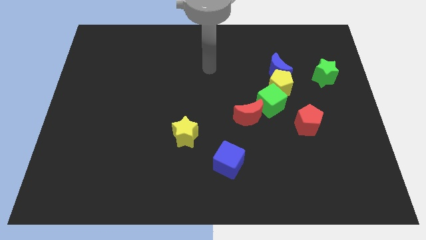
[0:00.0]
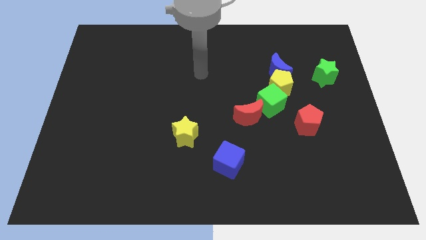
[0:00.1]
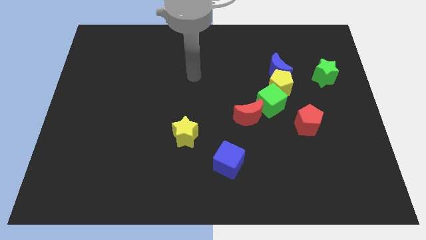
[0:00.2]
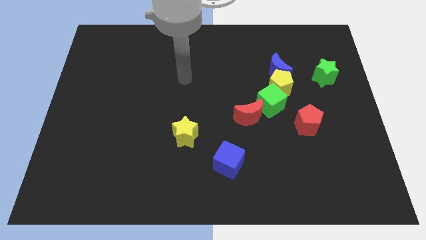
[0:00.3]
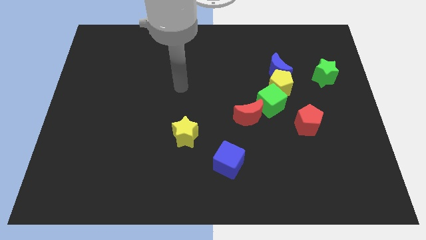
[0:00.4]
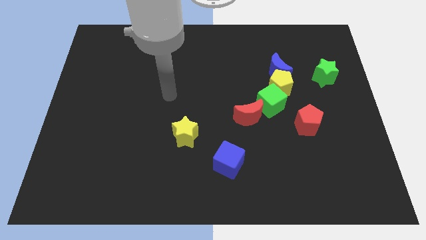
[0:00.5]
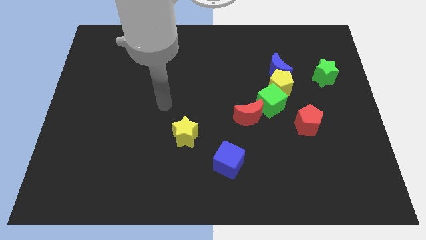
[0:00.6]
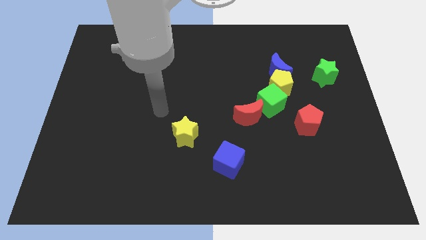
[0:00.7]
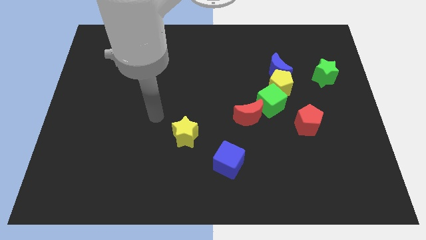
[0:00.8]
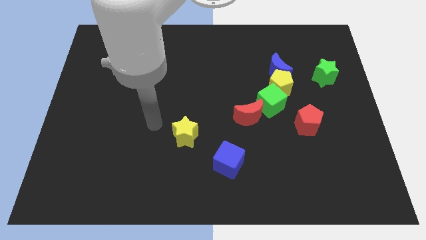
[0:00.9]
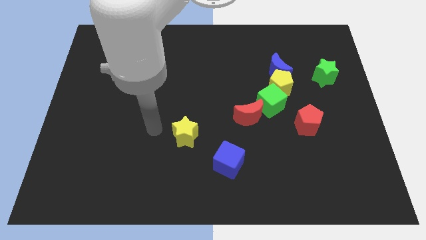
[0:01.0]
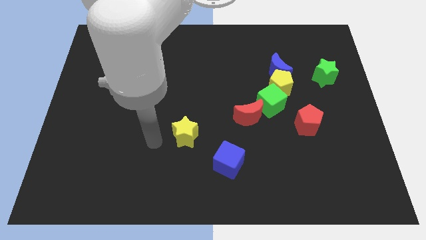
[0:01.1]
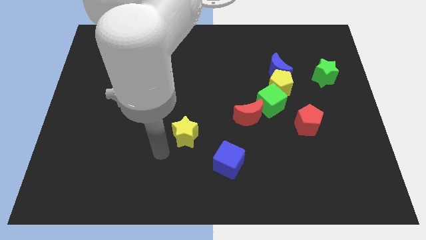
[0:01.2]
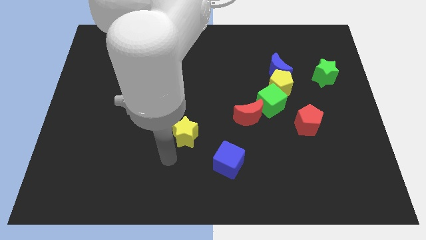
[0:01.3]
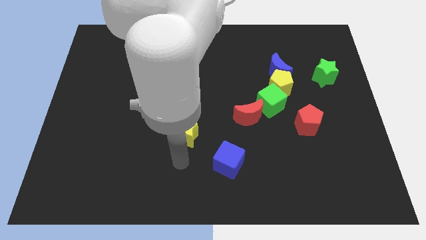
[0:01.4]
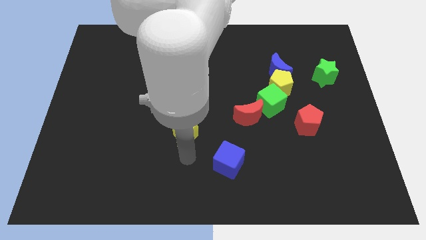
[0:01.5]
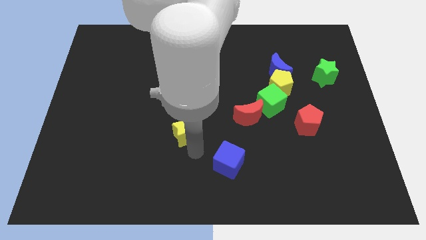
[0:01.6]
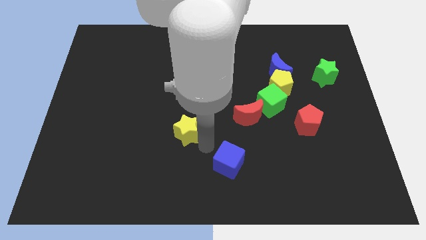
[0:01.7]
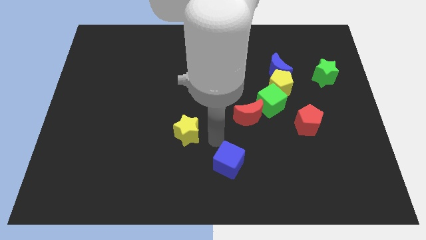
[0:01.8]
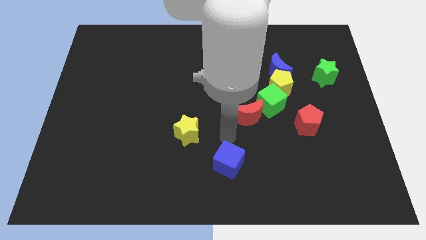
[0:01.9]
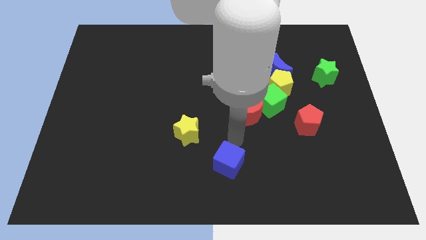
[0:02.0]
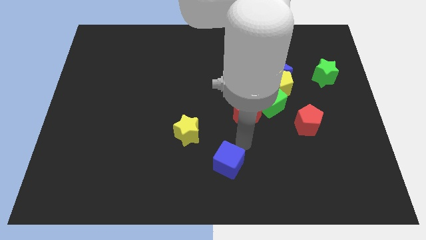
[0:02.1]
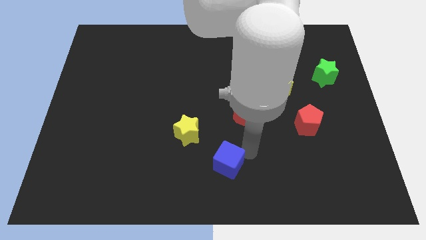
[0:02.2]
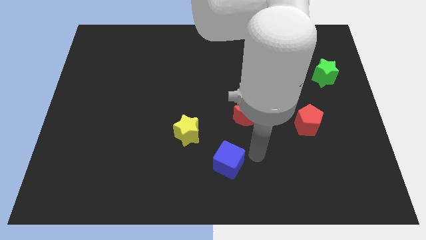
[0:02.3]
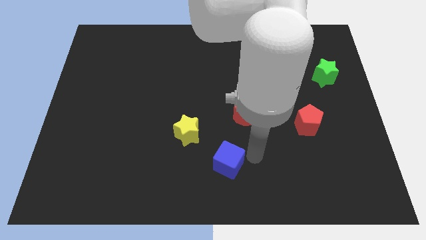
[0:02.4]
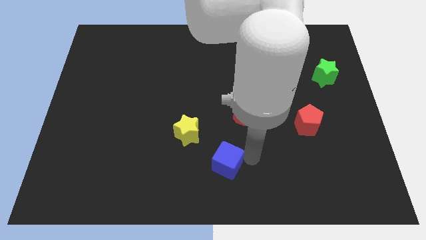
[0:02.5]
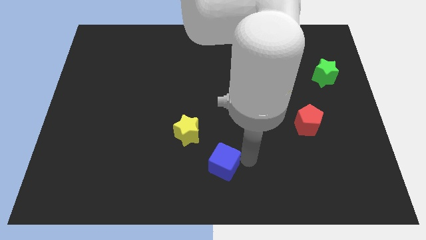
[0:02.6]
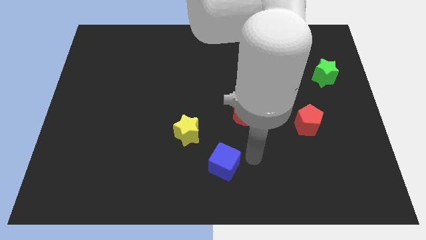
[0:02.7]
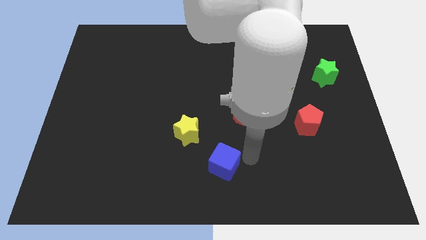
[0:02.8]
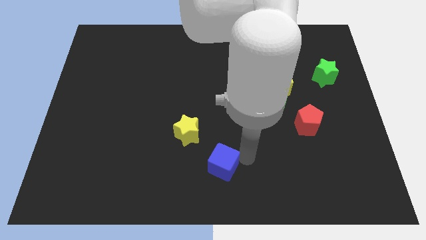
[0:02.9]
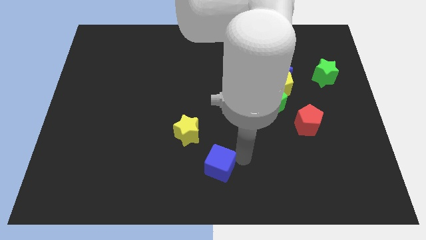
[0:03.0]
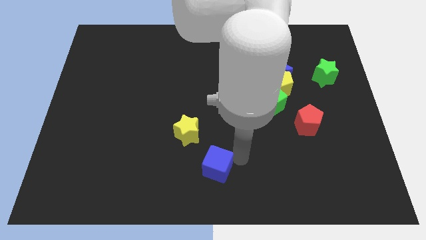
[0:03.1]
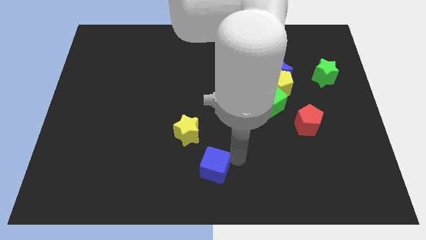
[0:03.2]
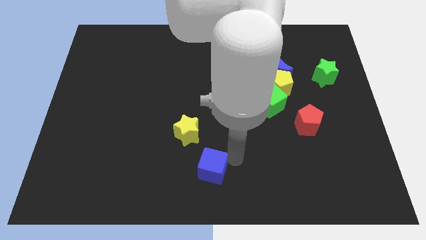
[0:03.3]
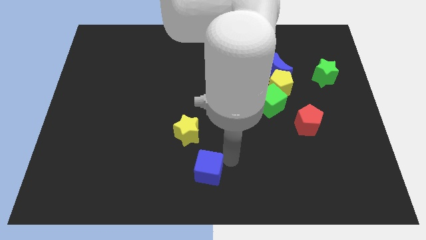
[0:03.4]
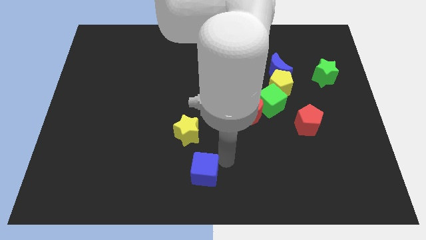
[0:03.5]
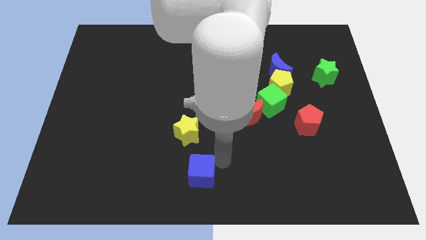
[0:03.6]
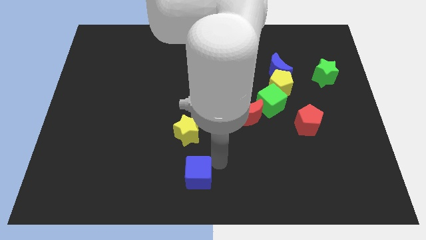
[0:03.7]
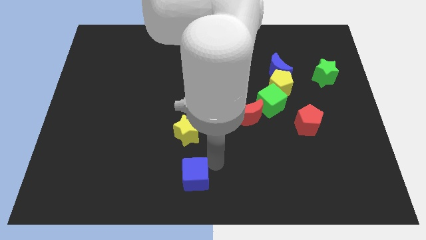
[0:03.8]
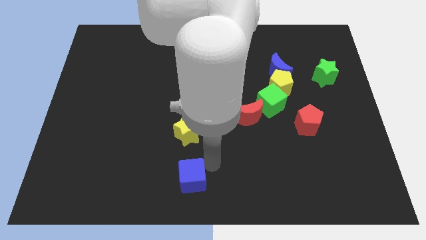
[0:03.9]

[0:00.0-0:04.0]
push the blue cube a bit left

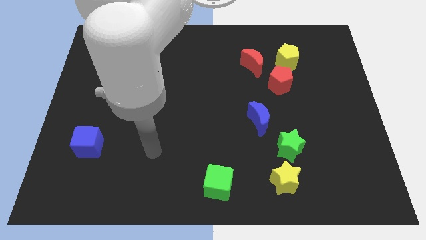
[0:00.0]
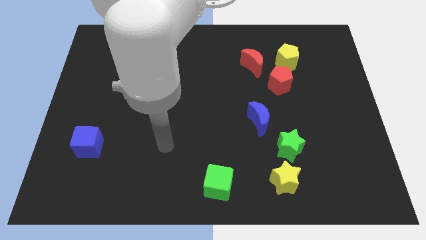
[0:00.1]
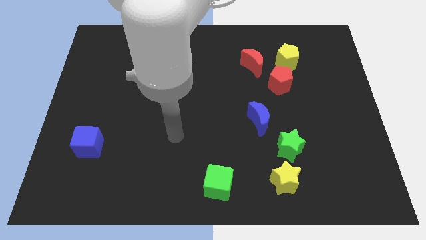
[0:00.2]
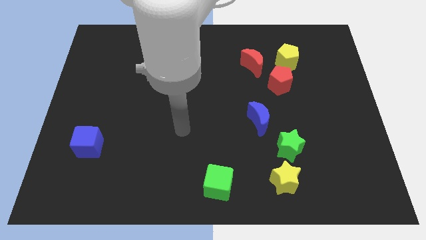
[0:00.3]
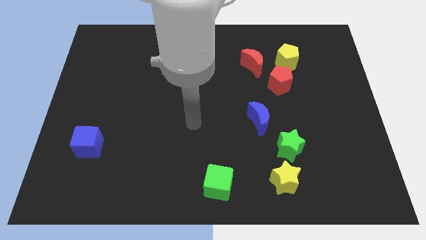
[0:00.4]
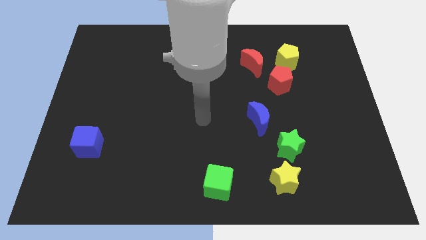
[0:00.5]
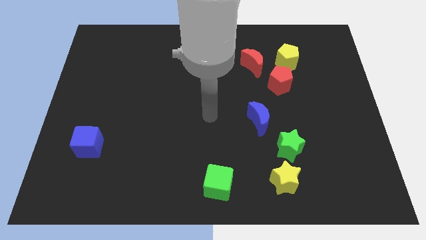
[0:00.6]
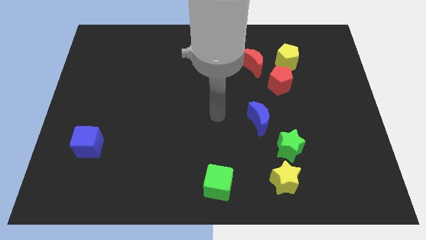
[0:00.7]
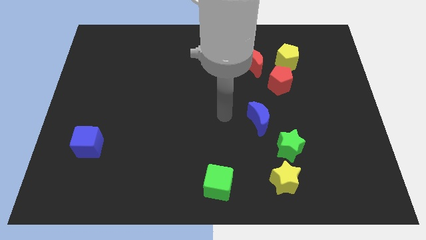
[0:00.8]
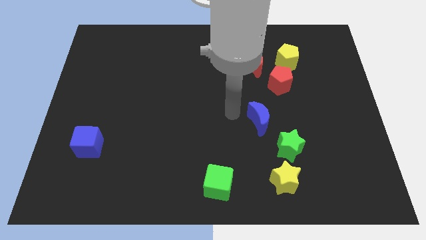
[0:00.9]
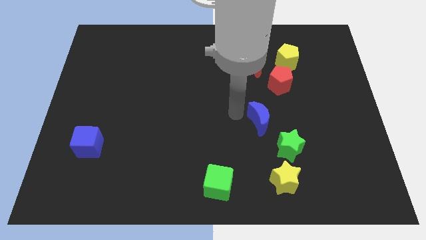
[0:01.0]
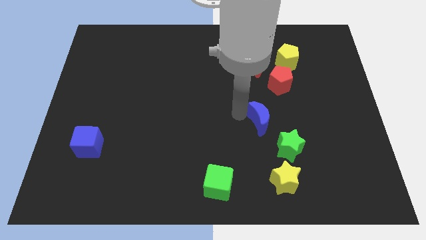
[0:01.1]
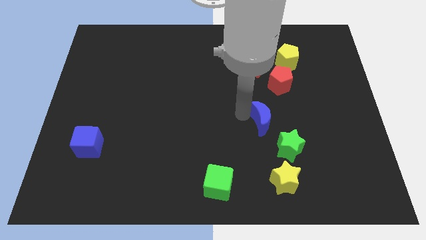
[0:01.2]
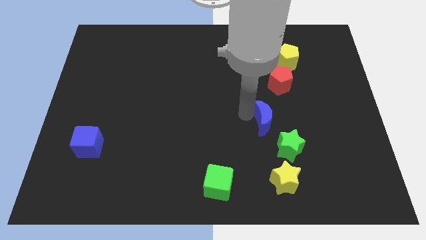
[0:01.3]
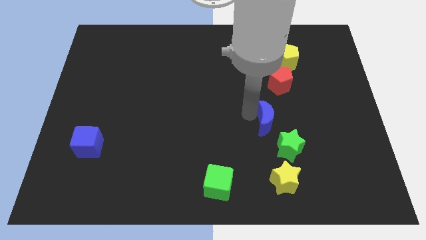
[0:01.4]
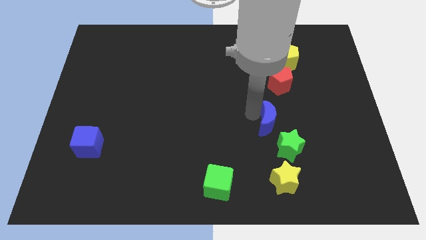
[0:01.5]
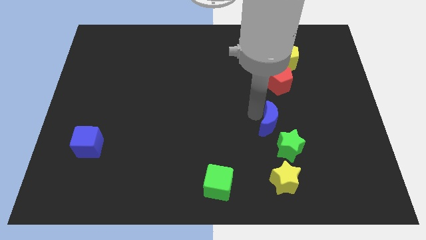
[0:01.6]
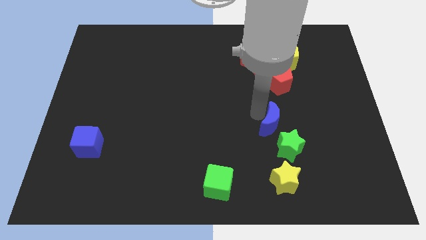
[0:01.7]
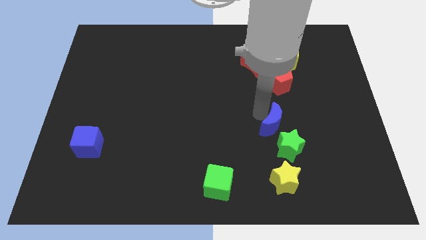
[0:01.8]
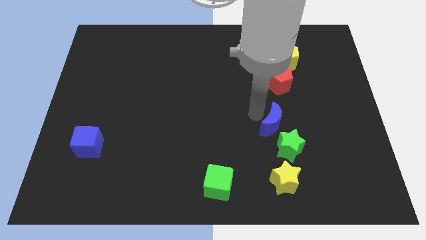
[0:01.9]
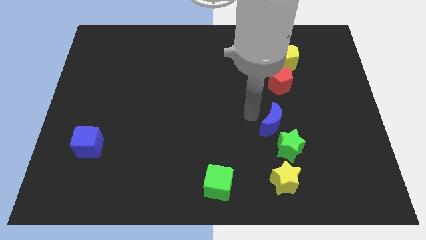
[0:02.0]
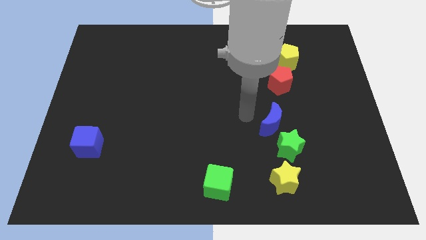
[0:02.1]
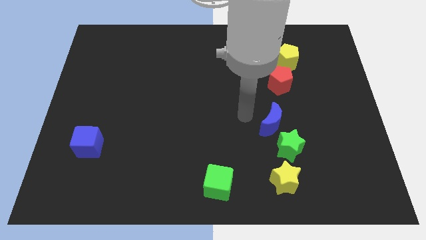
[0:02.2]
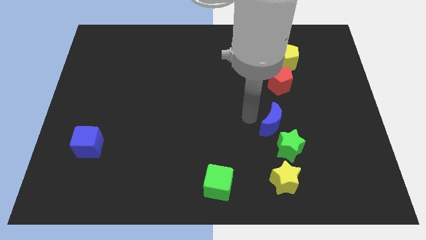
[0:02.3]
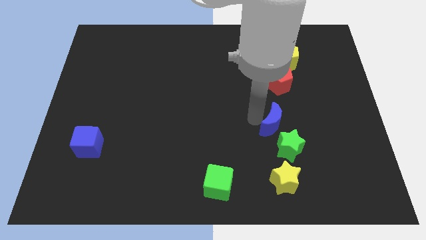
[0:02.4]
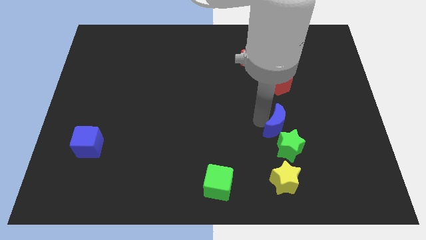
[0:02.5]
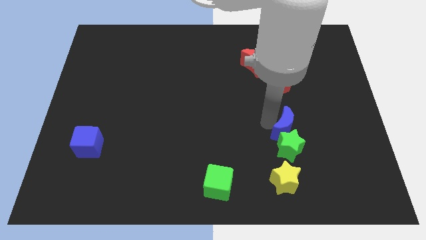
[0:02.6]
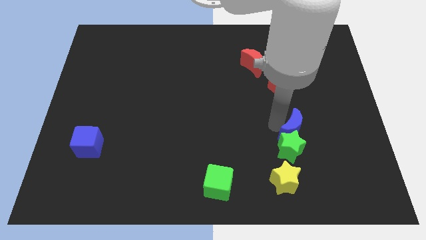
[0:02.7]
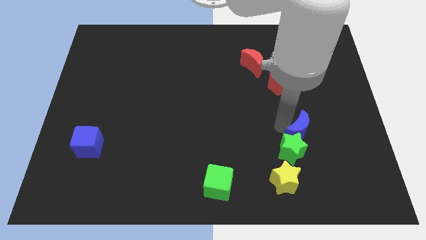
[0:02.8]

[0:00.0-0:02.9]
move the blue moon downwards and right diagonally a little bit

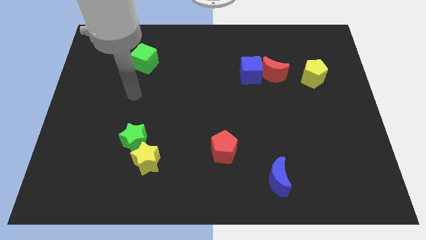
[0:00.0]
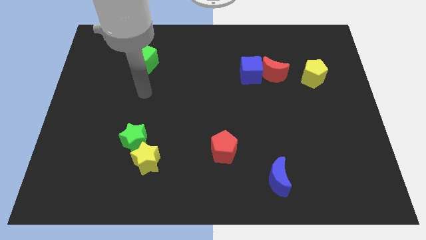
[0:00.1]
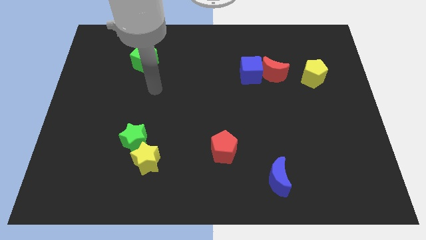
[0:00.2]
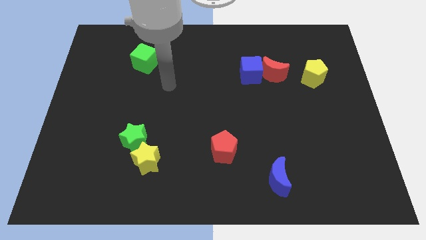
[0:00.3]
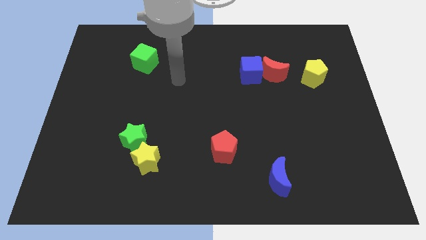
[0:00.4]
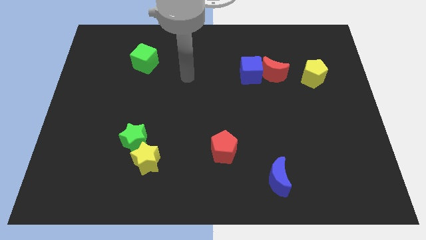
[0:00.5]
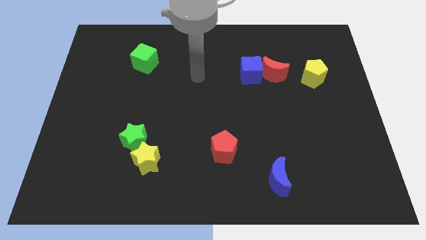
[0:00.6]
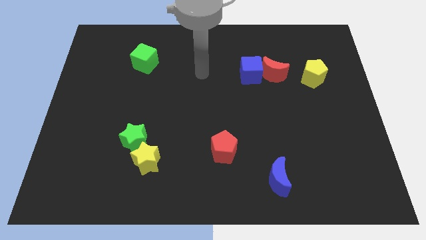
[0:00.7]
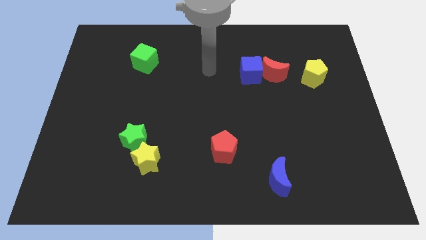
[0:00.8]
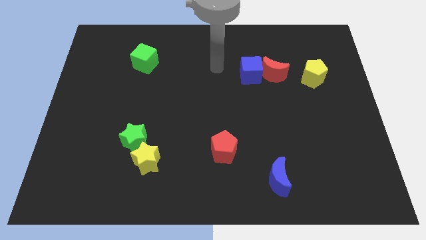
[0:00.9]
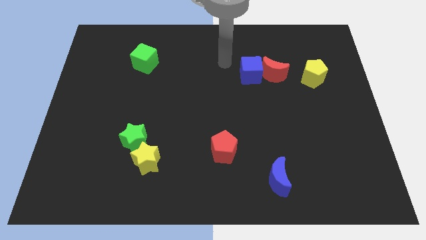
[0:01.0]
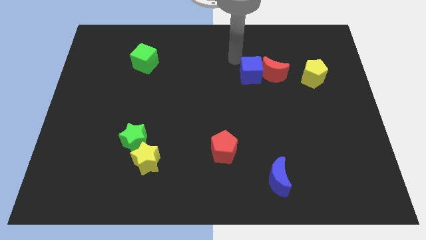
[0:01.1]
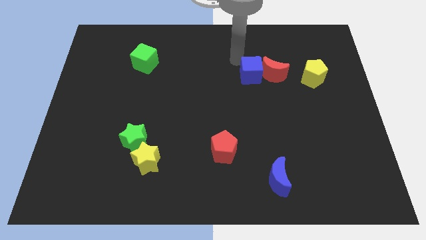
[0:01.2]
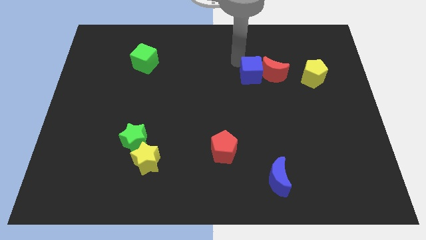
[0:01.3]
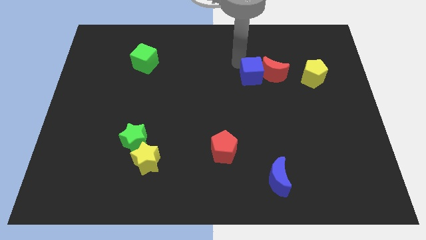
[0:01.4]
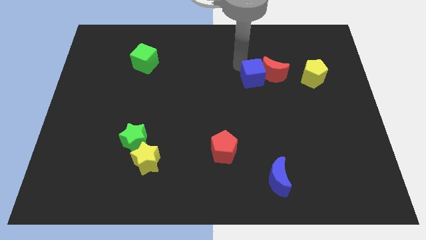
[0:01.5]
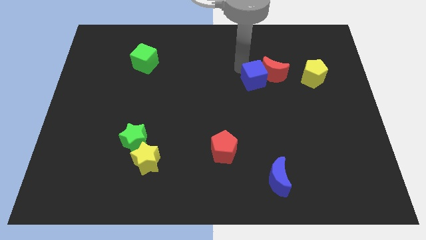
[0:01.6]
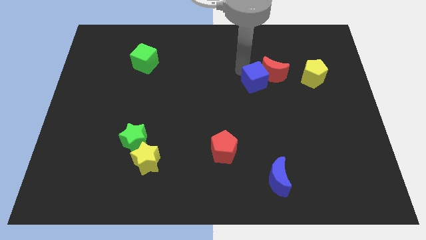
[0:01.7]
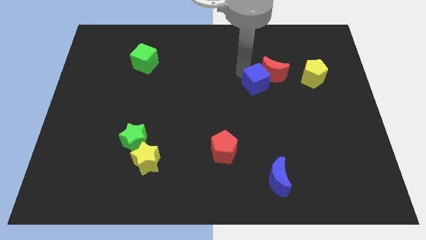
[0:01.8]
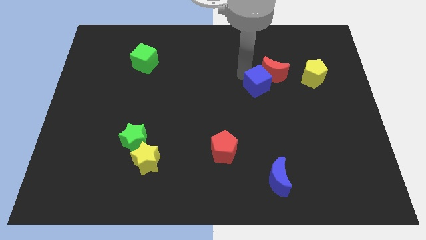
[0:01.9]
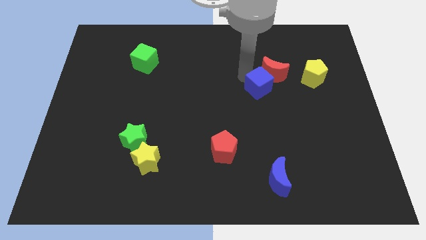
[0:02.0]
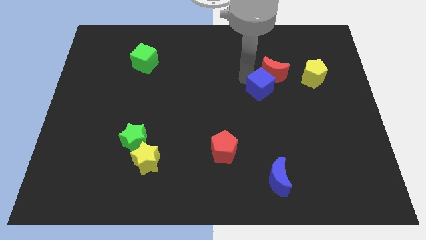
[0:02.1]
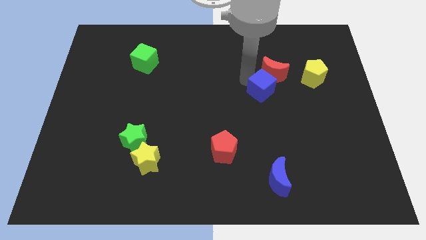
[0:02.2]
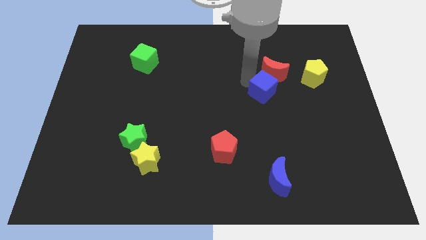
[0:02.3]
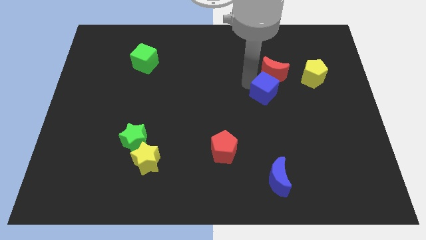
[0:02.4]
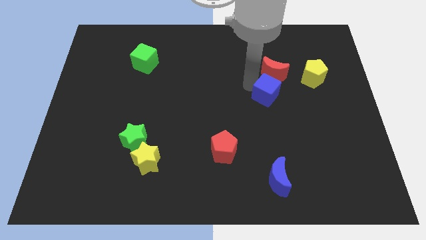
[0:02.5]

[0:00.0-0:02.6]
slightly move the blue cube downwards and to the right diagonally
